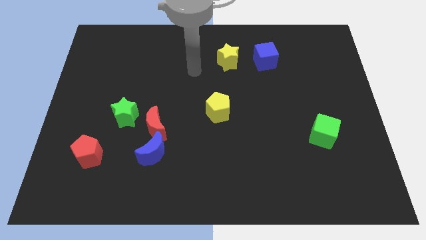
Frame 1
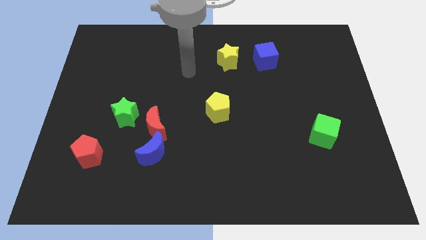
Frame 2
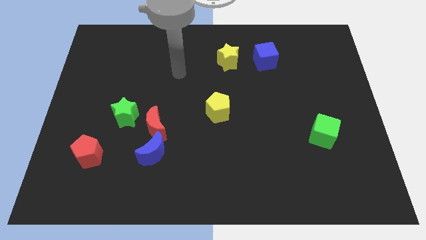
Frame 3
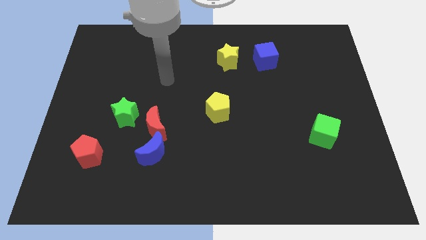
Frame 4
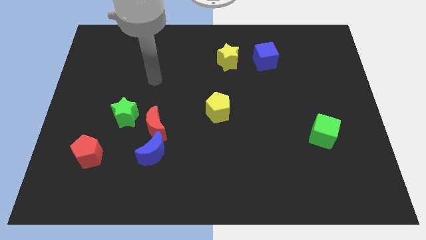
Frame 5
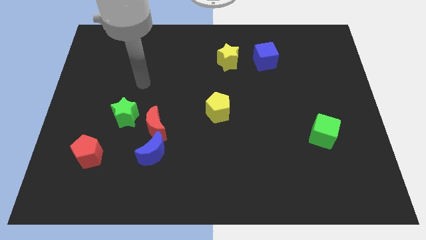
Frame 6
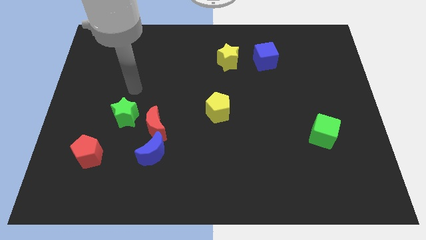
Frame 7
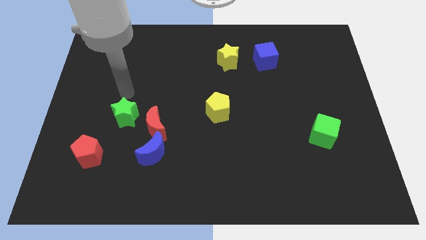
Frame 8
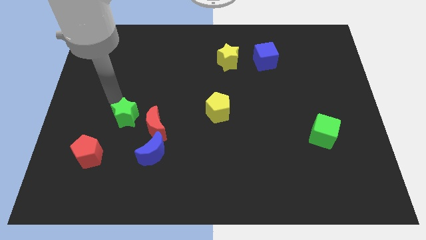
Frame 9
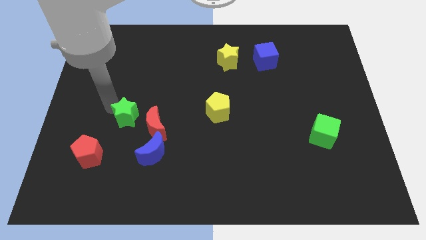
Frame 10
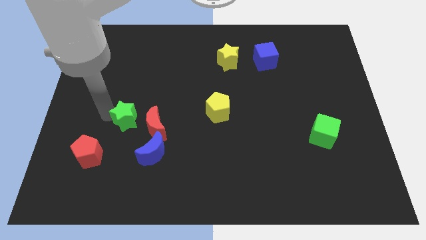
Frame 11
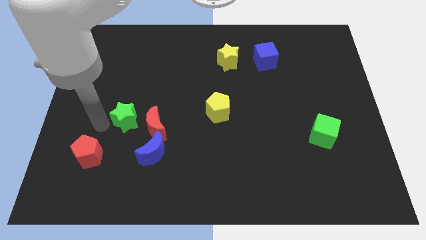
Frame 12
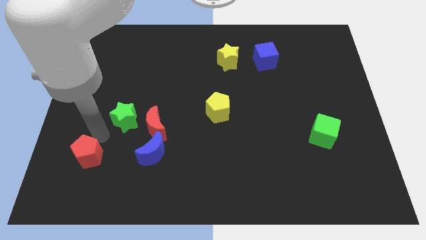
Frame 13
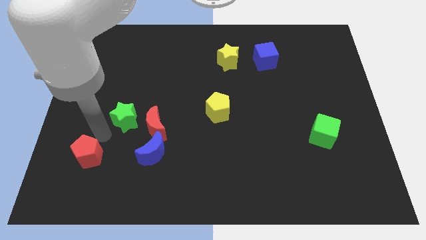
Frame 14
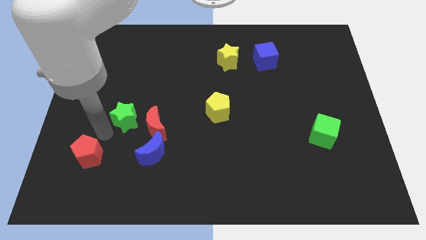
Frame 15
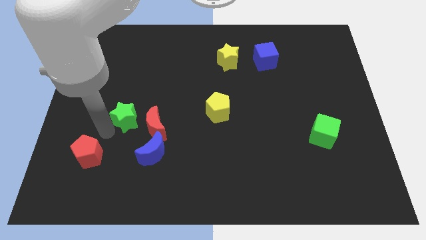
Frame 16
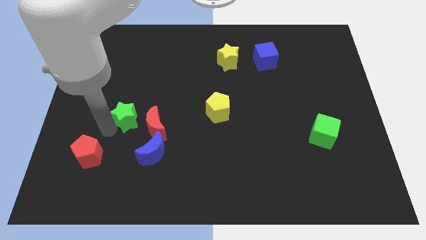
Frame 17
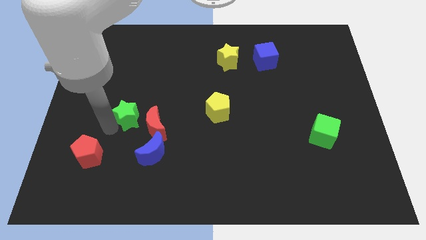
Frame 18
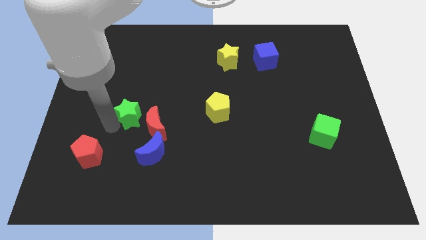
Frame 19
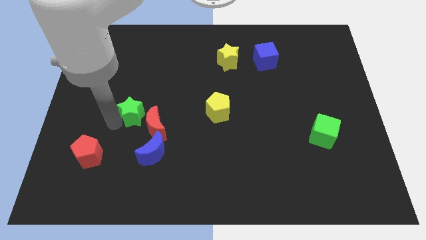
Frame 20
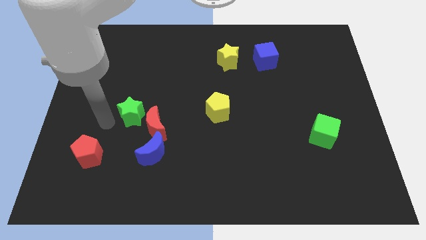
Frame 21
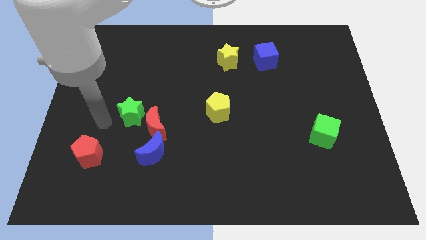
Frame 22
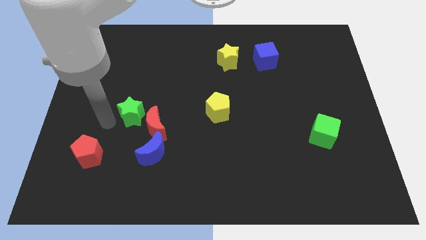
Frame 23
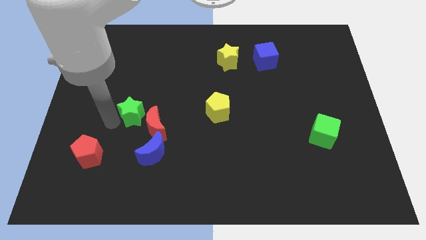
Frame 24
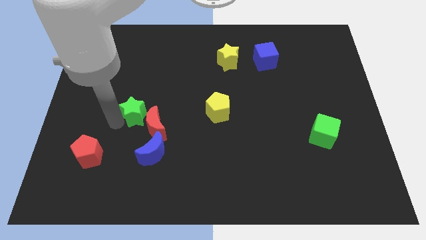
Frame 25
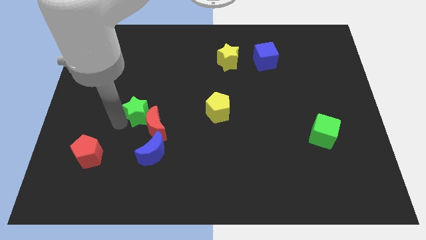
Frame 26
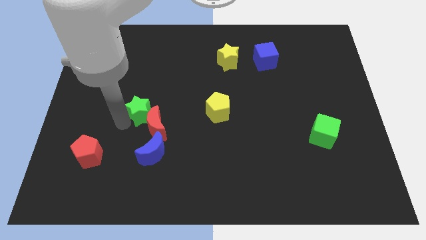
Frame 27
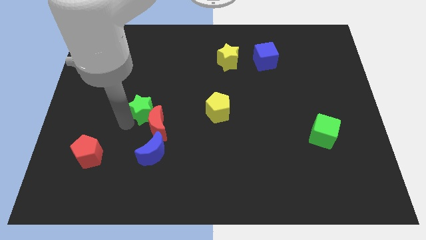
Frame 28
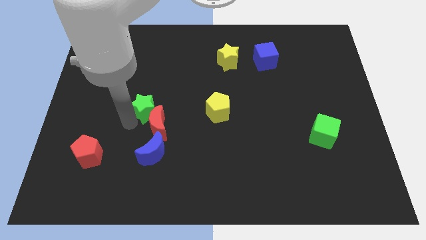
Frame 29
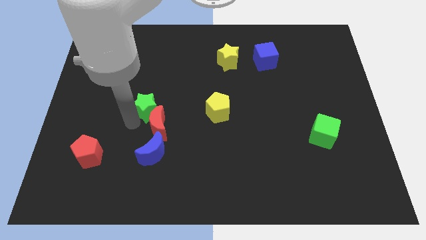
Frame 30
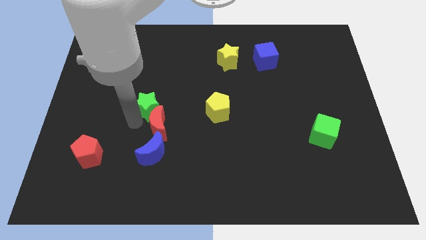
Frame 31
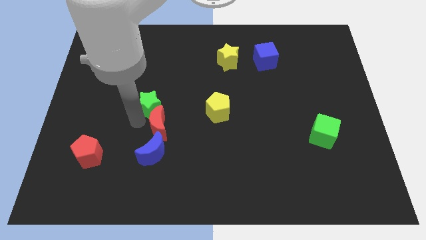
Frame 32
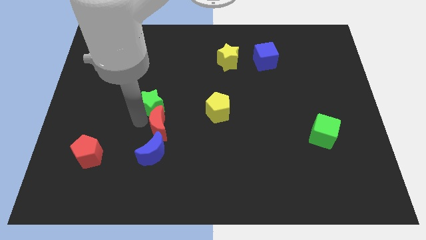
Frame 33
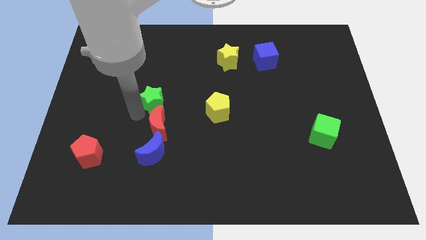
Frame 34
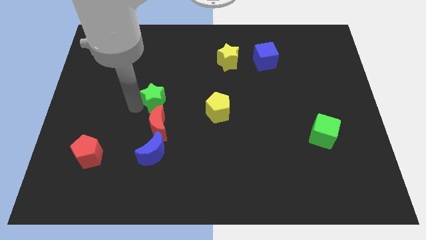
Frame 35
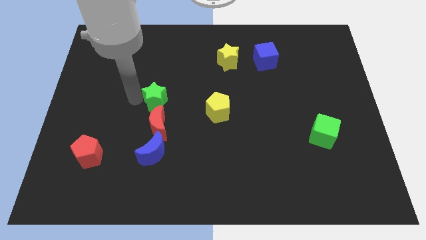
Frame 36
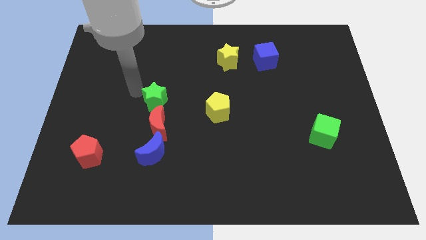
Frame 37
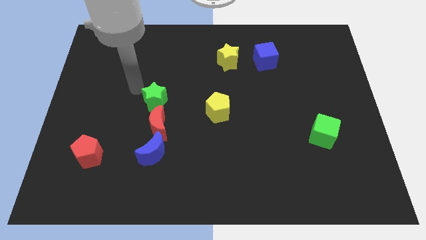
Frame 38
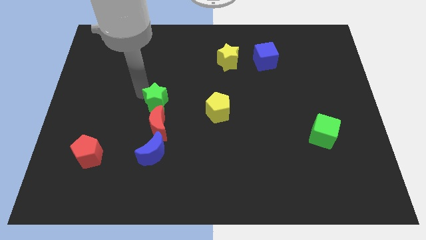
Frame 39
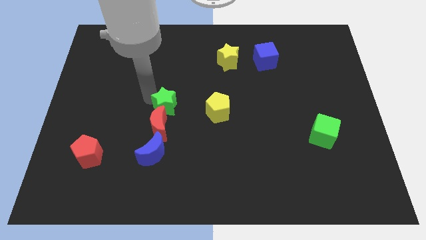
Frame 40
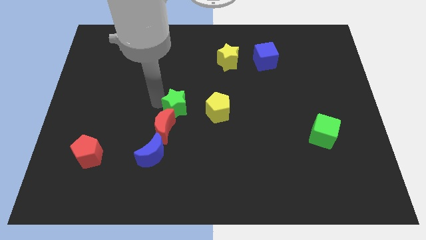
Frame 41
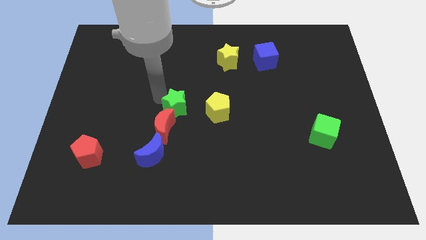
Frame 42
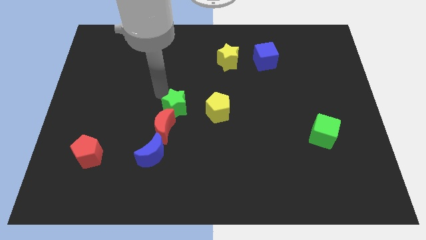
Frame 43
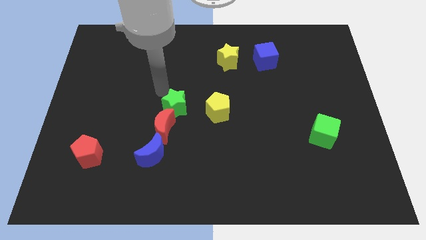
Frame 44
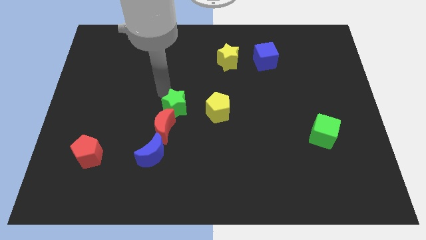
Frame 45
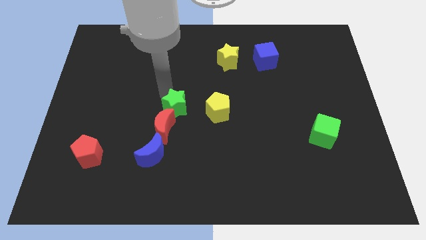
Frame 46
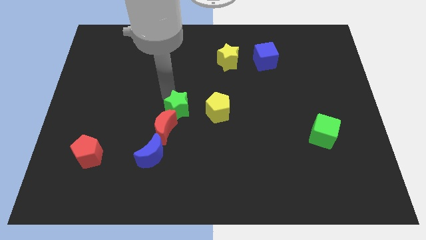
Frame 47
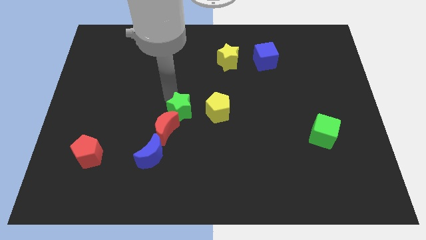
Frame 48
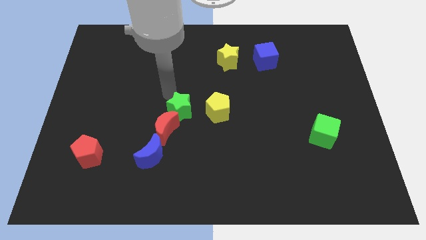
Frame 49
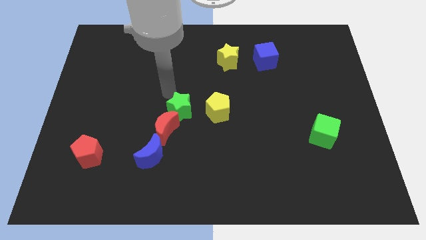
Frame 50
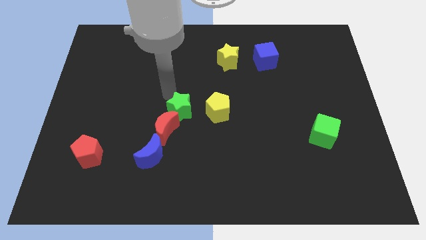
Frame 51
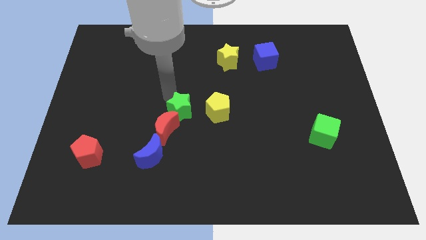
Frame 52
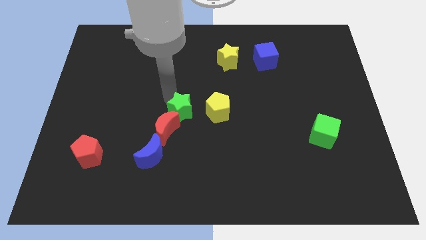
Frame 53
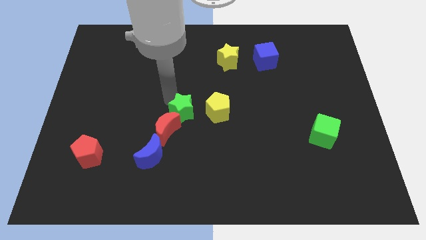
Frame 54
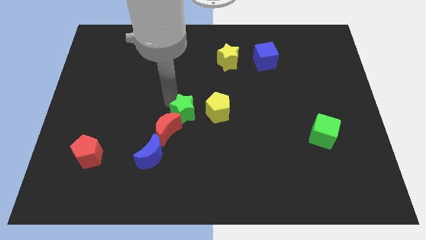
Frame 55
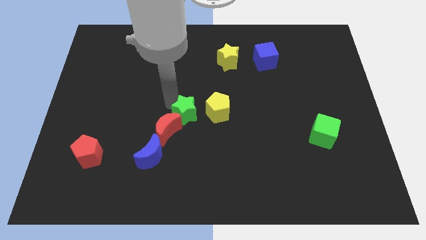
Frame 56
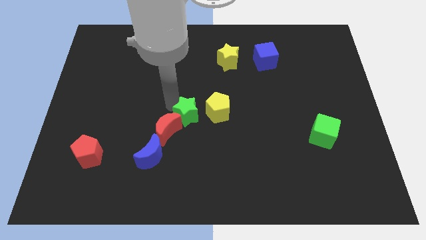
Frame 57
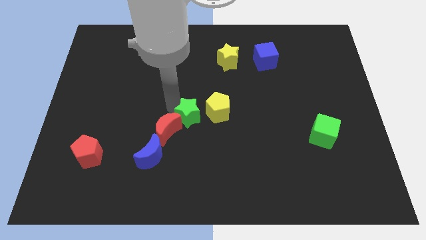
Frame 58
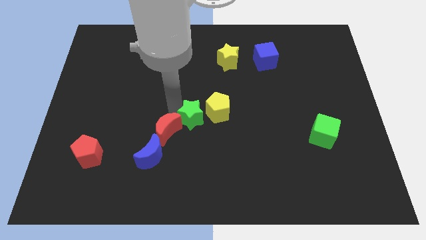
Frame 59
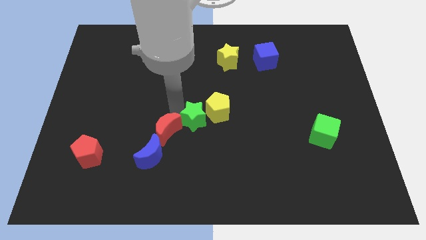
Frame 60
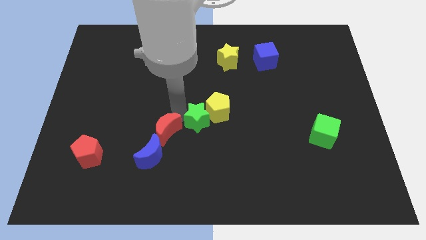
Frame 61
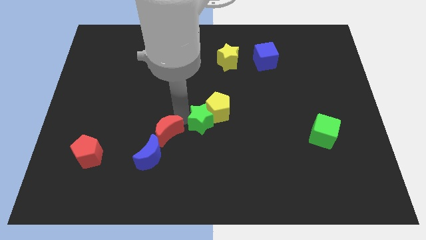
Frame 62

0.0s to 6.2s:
push the green star below the yellow pentagon

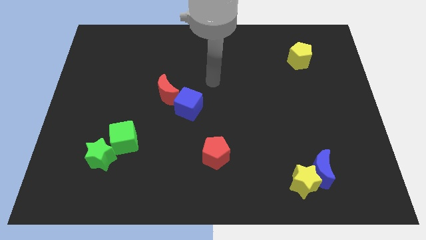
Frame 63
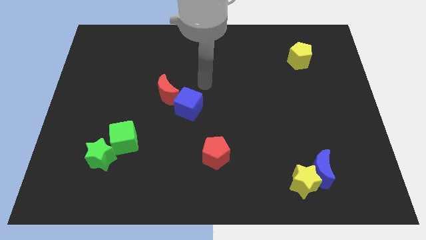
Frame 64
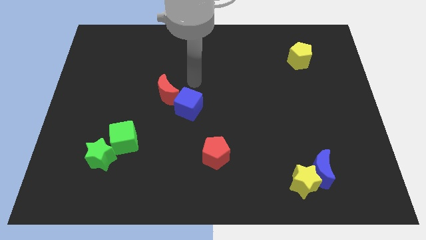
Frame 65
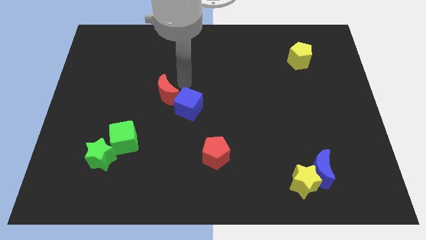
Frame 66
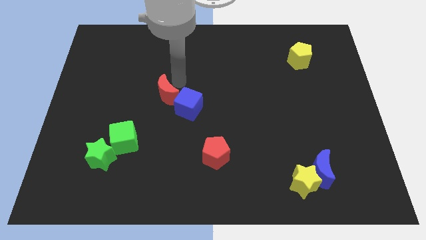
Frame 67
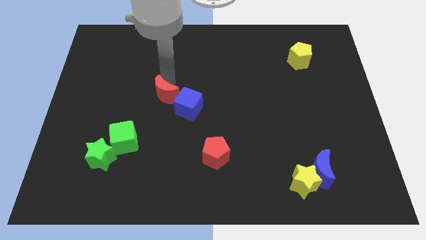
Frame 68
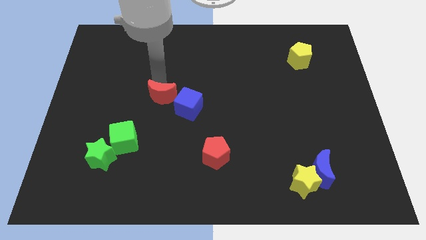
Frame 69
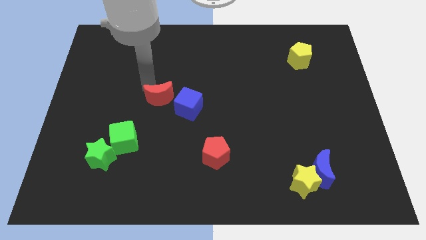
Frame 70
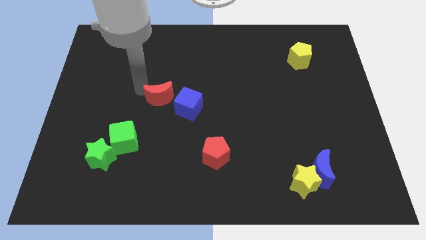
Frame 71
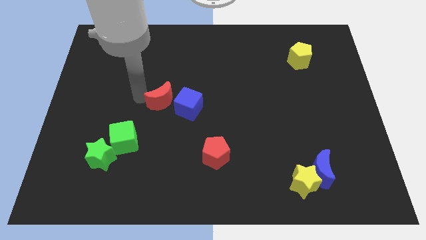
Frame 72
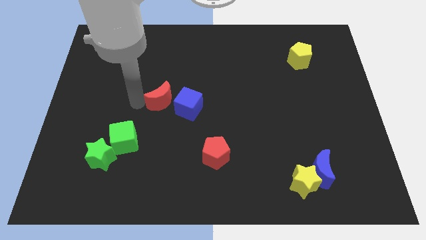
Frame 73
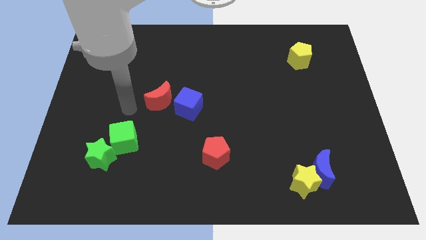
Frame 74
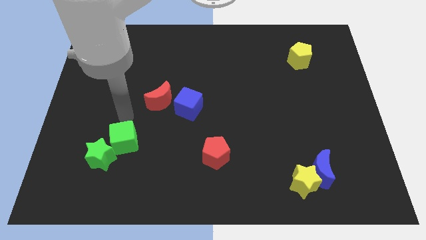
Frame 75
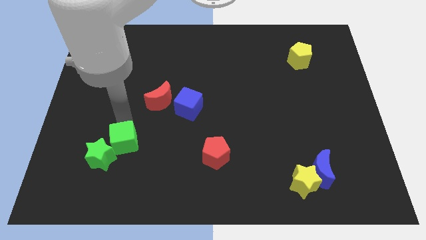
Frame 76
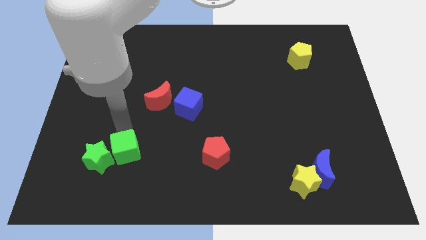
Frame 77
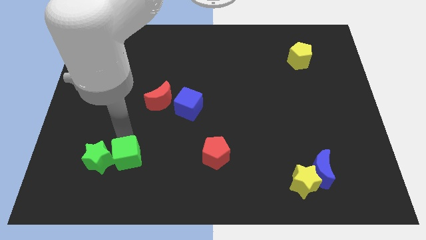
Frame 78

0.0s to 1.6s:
slide the green cube diagonally down and to the right of the green star

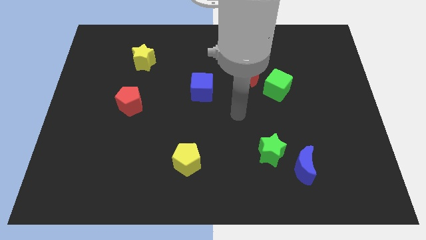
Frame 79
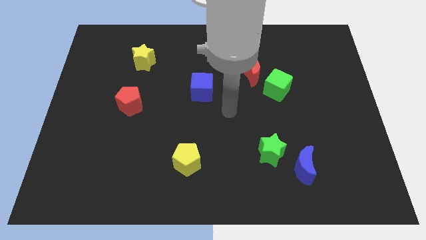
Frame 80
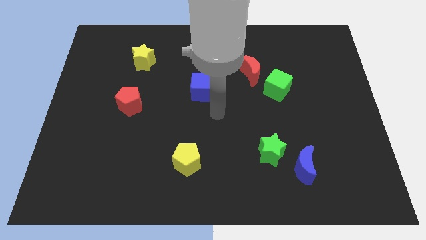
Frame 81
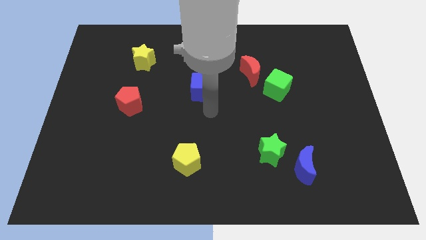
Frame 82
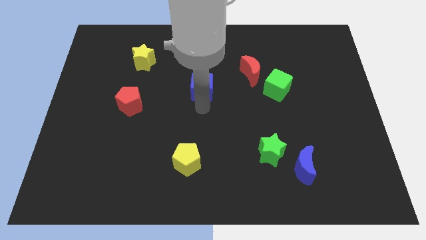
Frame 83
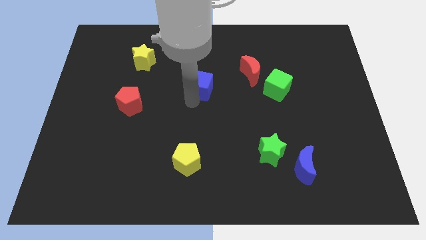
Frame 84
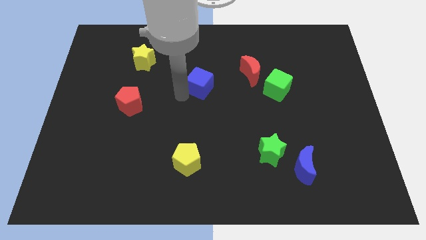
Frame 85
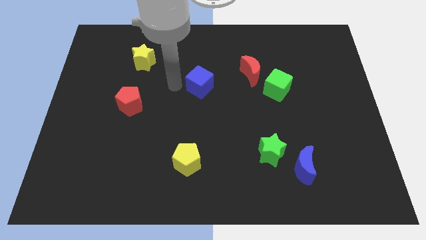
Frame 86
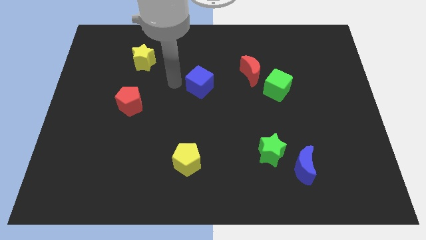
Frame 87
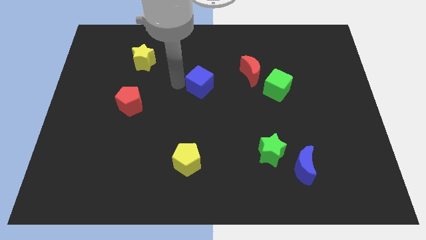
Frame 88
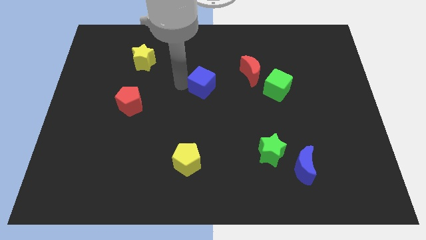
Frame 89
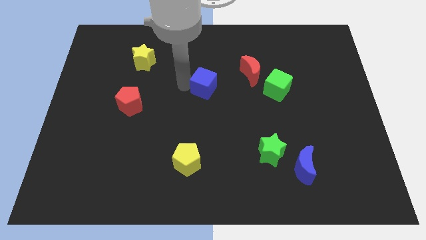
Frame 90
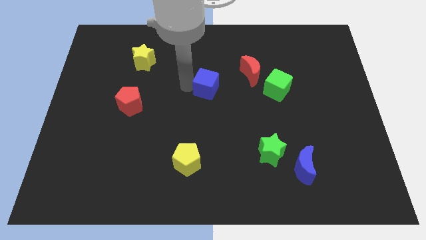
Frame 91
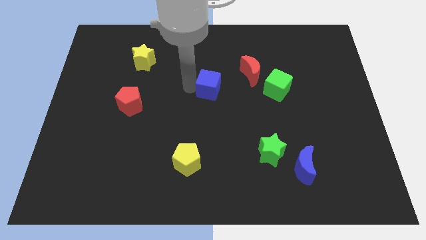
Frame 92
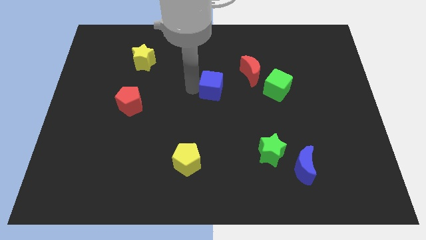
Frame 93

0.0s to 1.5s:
push the blue cube to the bottom left of the red moon
